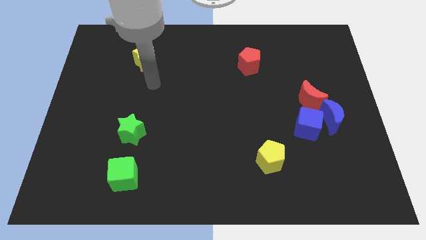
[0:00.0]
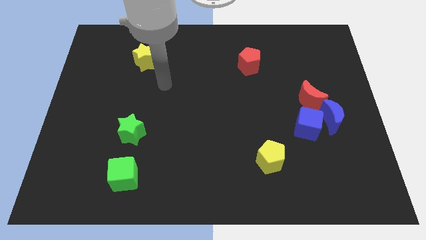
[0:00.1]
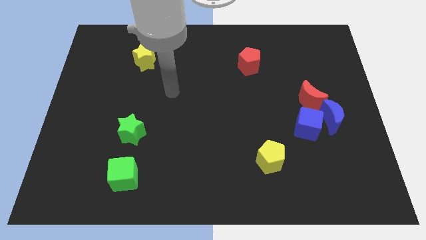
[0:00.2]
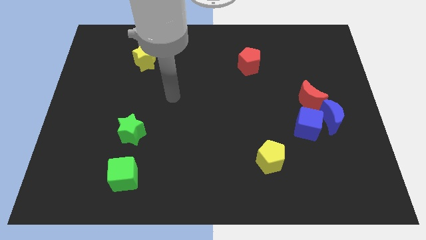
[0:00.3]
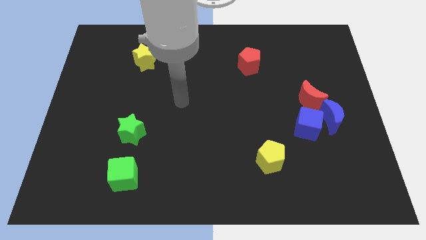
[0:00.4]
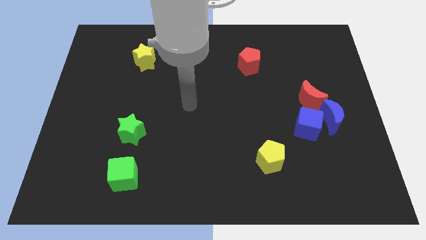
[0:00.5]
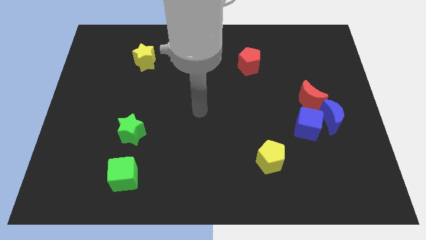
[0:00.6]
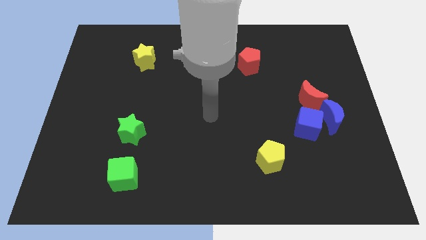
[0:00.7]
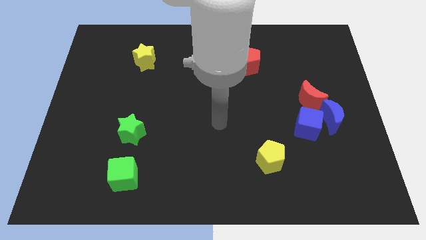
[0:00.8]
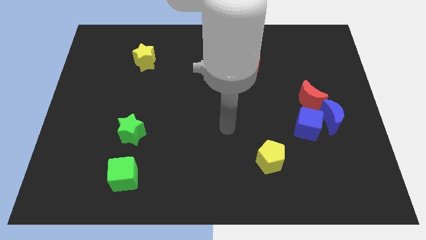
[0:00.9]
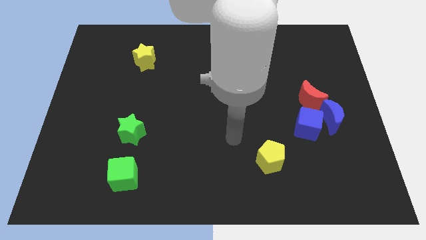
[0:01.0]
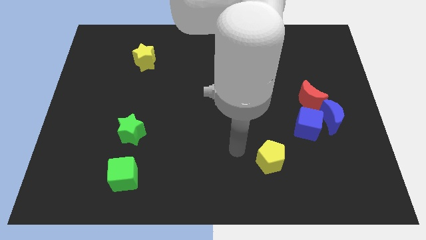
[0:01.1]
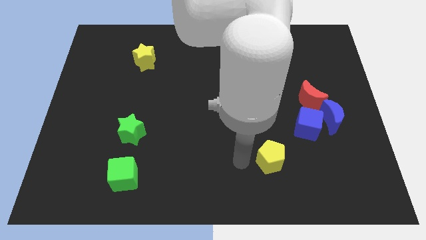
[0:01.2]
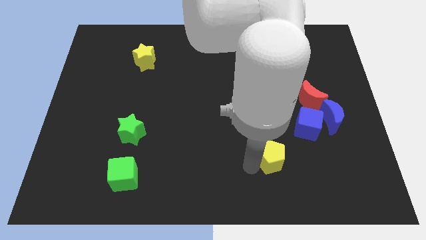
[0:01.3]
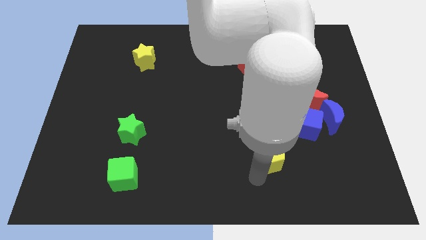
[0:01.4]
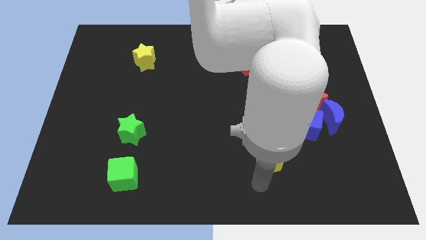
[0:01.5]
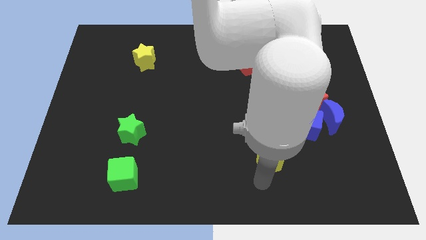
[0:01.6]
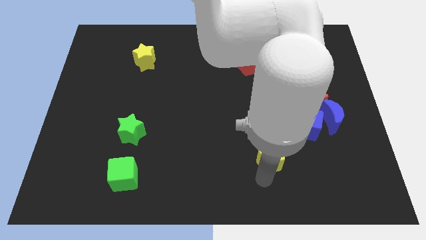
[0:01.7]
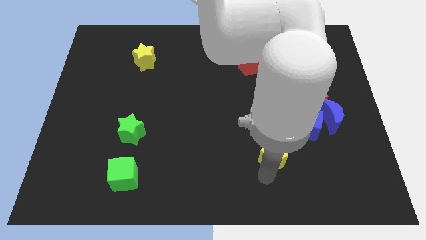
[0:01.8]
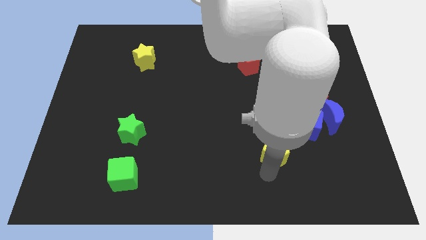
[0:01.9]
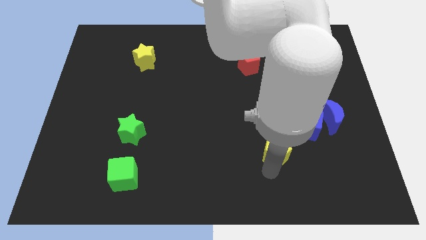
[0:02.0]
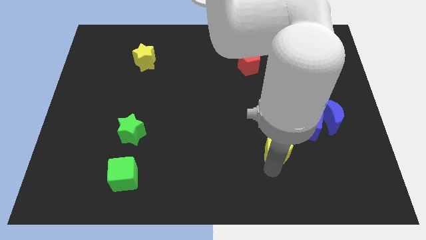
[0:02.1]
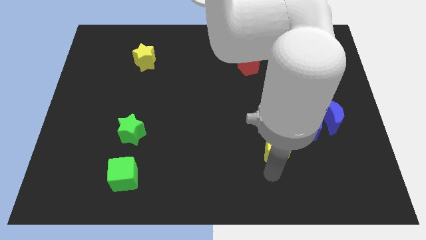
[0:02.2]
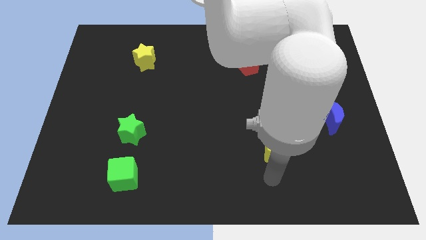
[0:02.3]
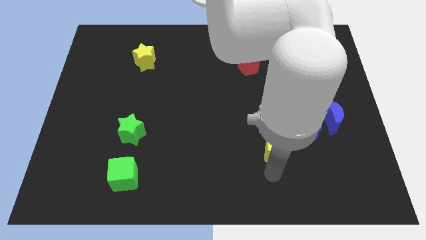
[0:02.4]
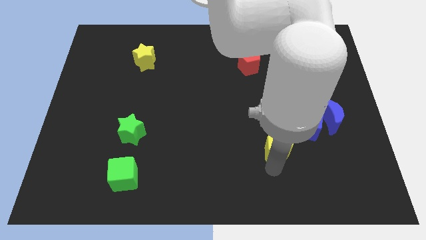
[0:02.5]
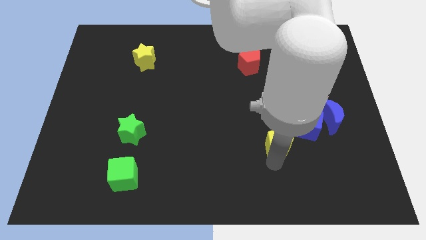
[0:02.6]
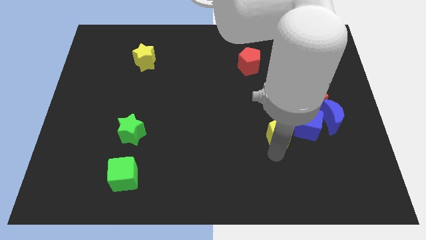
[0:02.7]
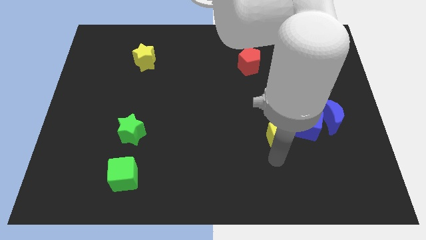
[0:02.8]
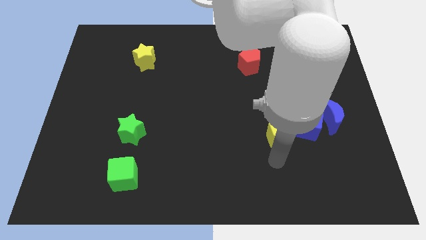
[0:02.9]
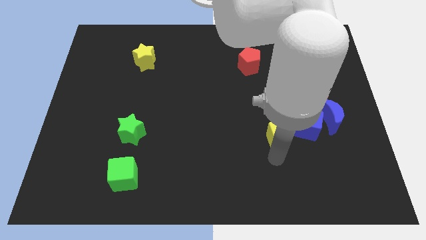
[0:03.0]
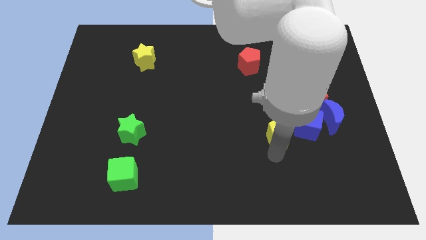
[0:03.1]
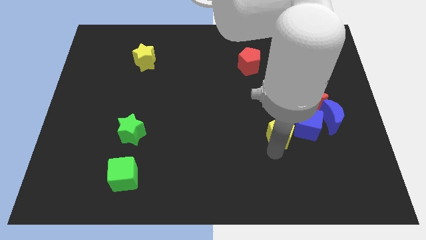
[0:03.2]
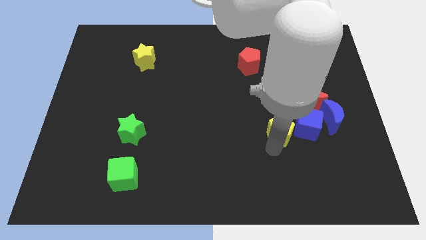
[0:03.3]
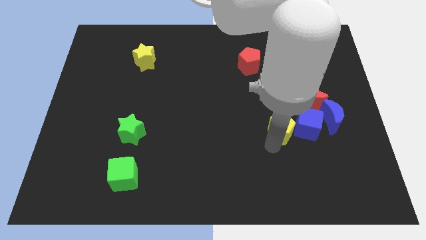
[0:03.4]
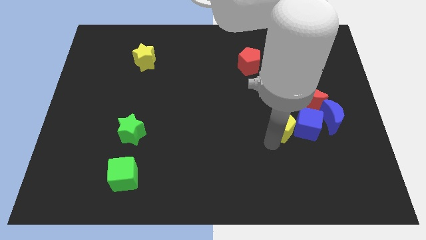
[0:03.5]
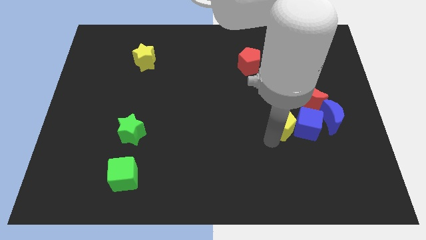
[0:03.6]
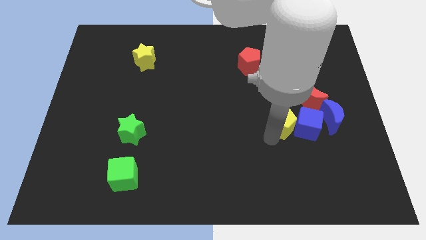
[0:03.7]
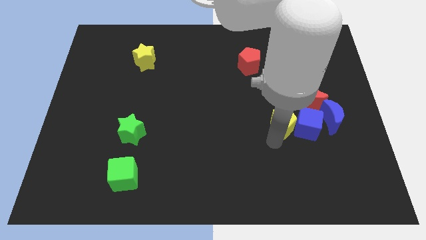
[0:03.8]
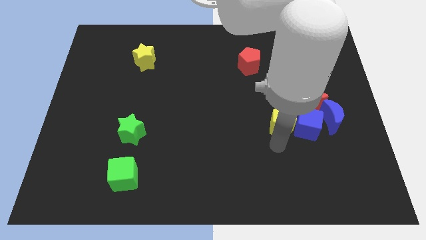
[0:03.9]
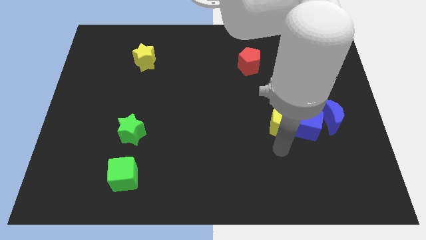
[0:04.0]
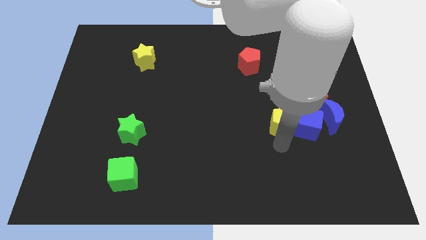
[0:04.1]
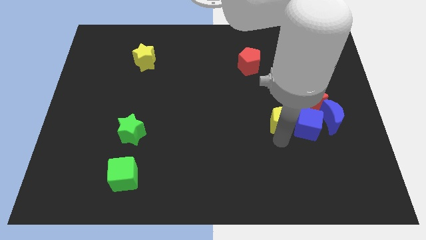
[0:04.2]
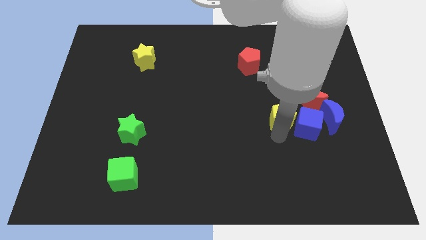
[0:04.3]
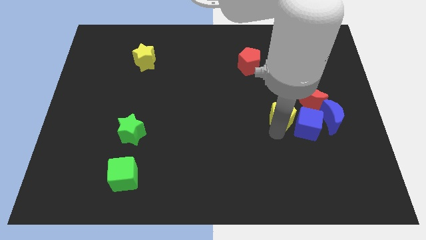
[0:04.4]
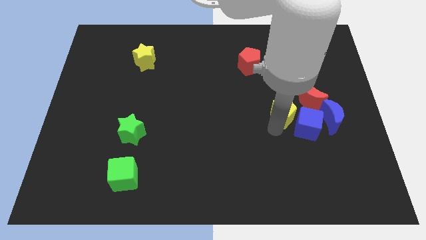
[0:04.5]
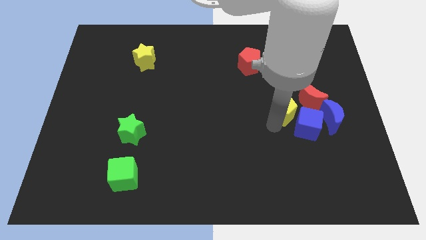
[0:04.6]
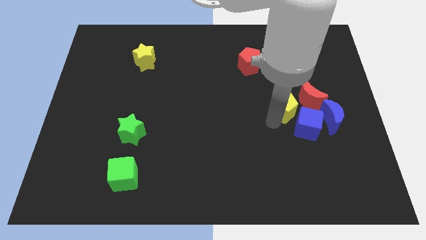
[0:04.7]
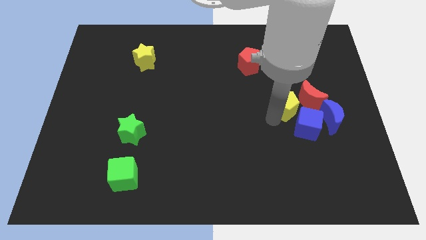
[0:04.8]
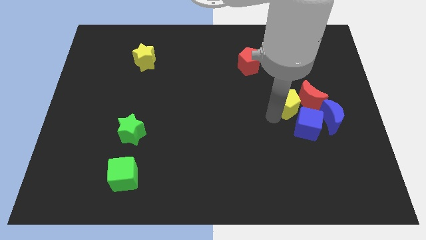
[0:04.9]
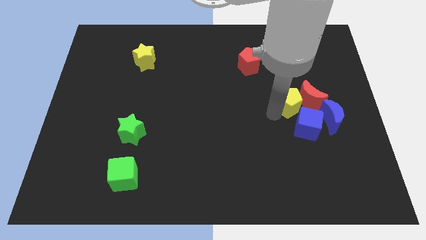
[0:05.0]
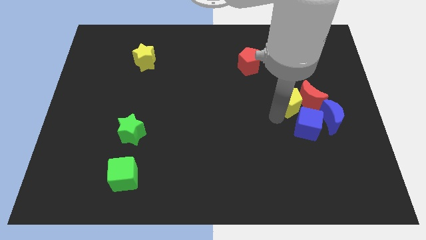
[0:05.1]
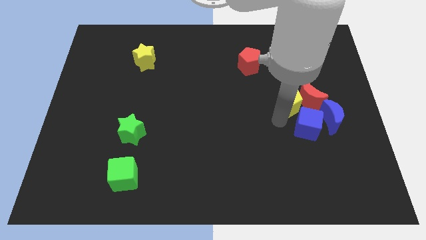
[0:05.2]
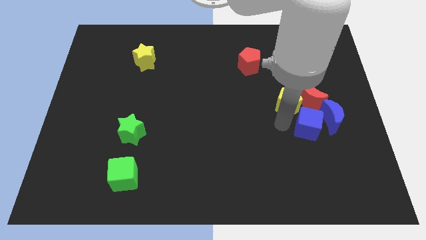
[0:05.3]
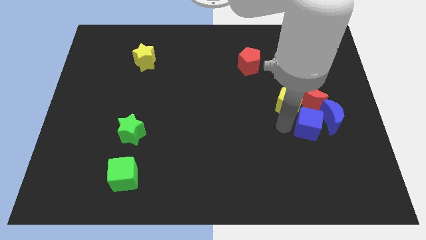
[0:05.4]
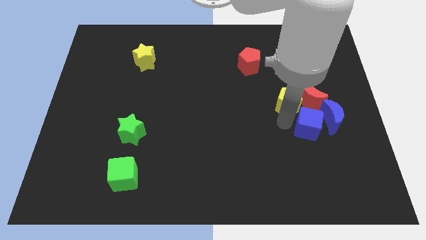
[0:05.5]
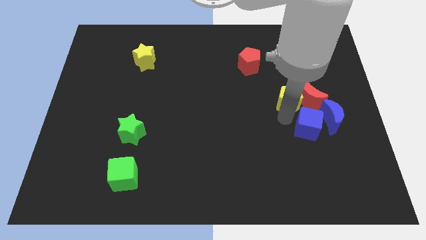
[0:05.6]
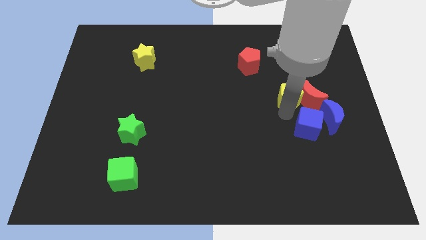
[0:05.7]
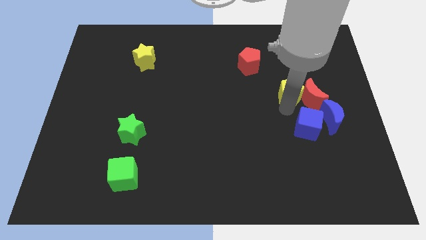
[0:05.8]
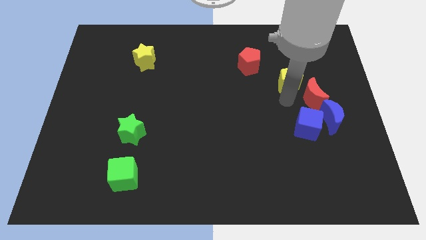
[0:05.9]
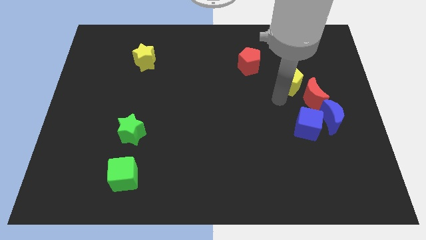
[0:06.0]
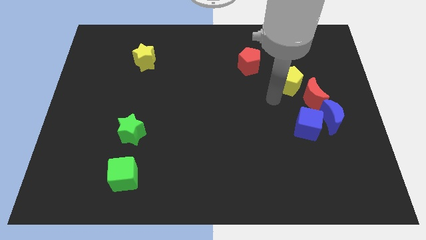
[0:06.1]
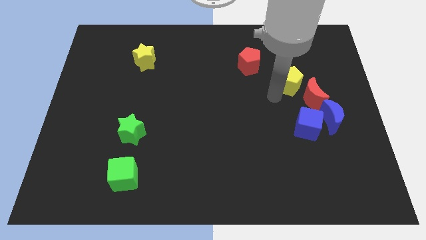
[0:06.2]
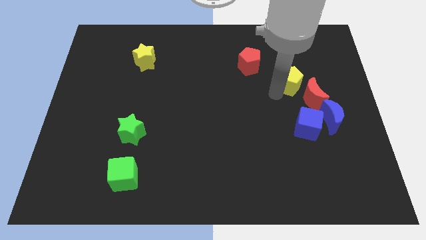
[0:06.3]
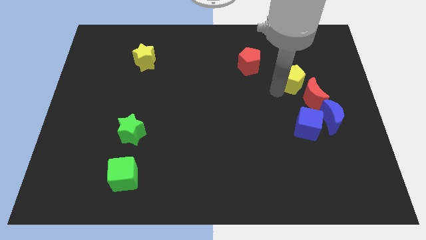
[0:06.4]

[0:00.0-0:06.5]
move the yellow pentagon to the top of the red moon
